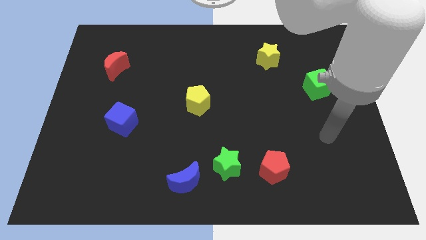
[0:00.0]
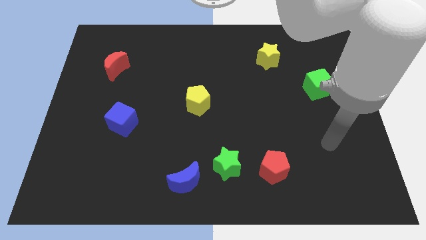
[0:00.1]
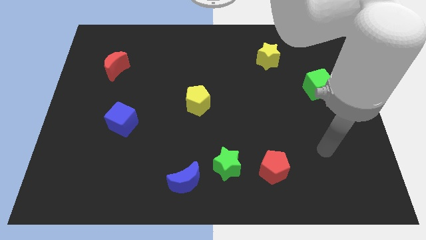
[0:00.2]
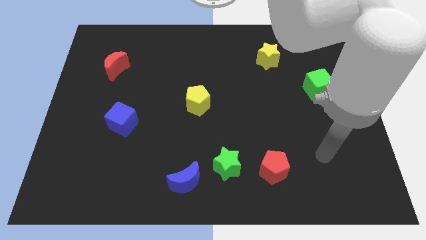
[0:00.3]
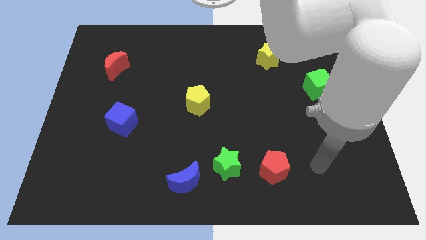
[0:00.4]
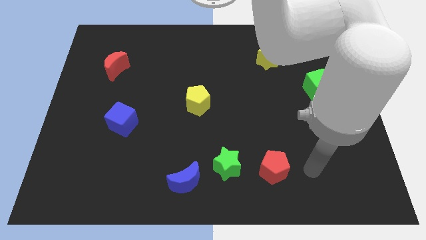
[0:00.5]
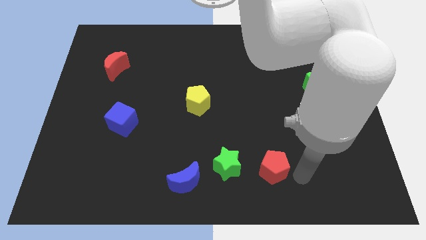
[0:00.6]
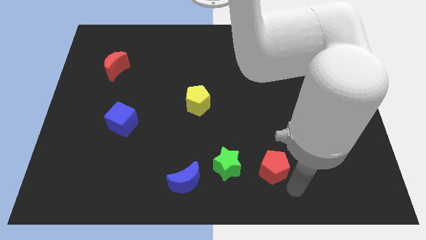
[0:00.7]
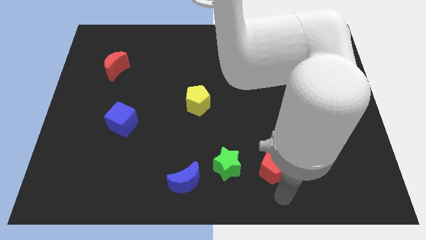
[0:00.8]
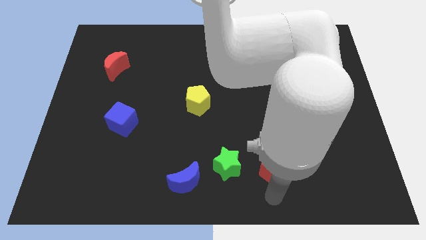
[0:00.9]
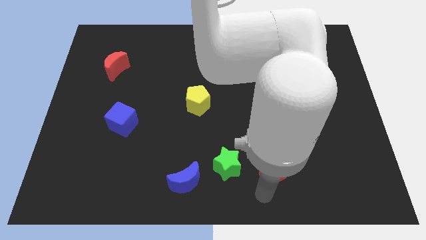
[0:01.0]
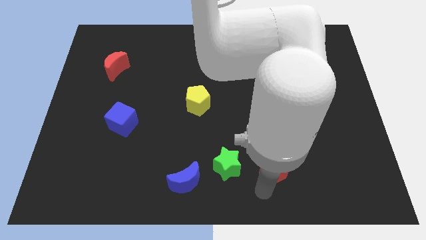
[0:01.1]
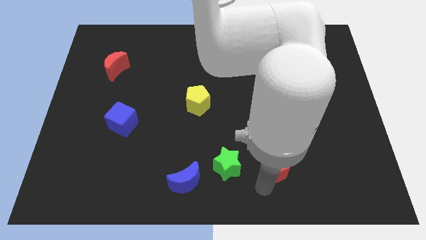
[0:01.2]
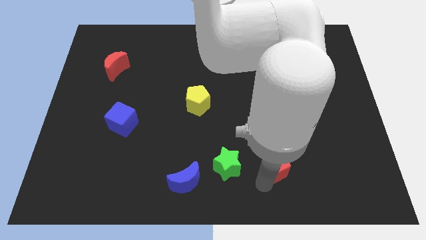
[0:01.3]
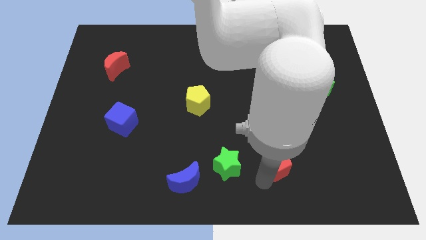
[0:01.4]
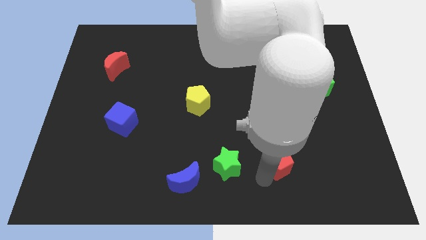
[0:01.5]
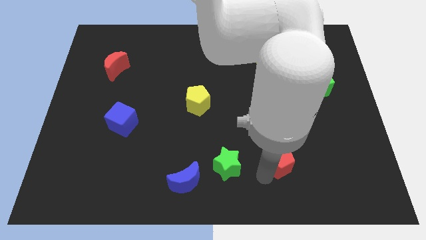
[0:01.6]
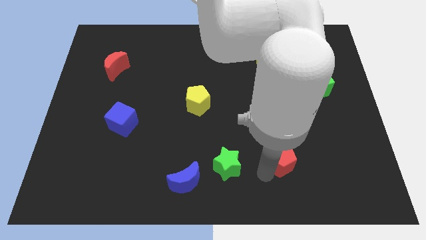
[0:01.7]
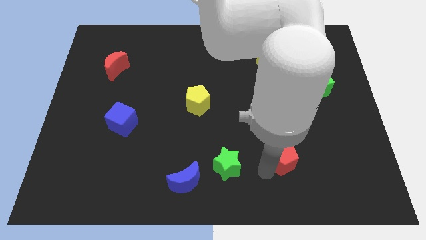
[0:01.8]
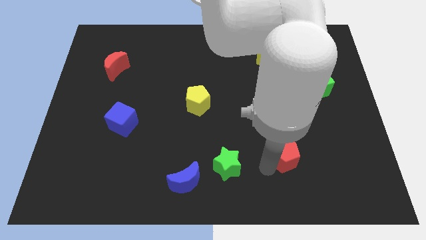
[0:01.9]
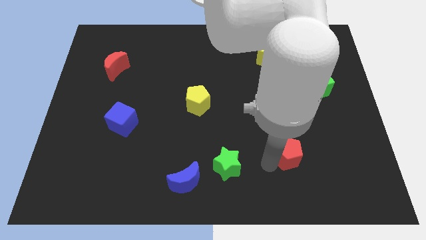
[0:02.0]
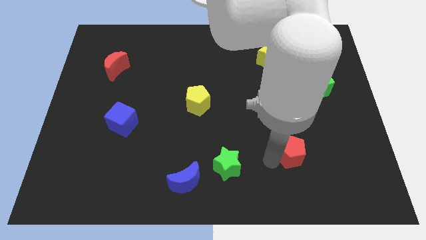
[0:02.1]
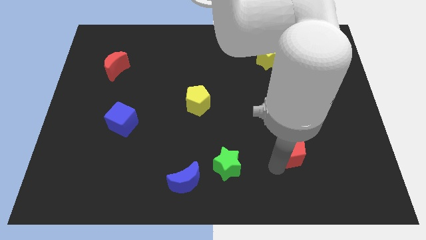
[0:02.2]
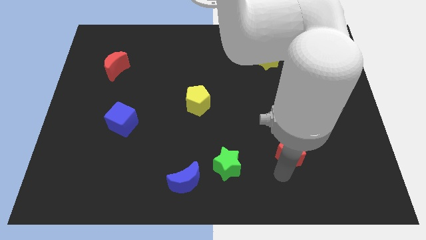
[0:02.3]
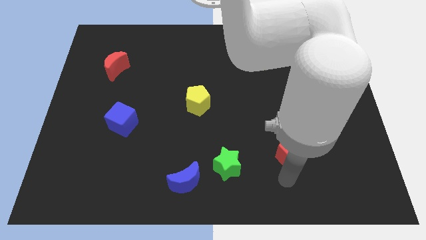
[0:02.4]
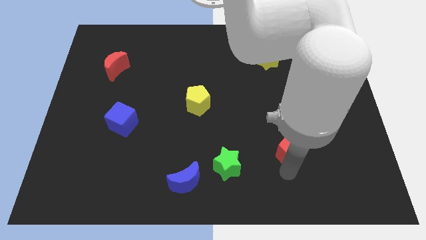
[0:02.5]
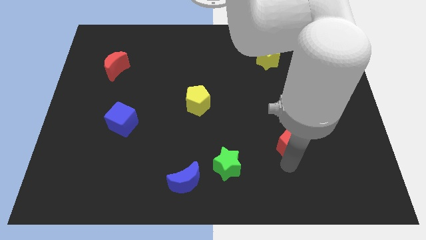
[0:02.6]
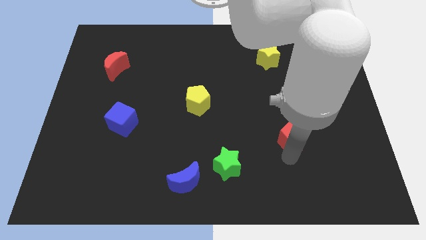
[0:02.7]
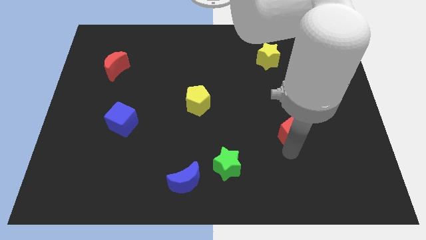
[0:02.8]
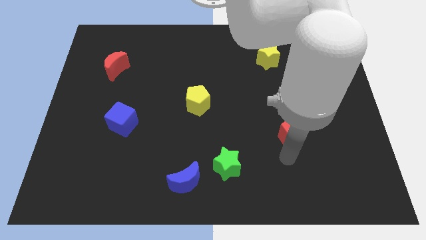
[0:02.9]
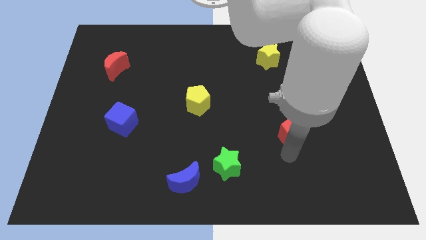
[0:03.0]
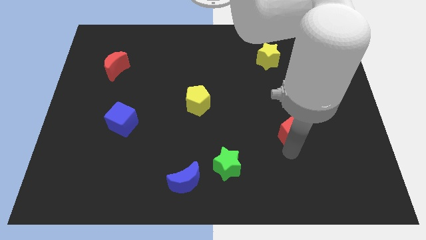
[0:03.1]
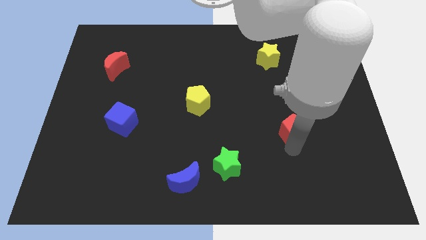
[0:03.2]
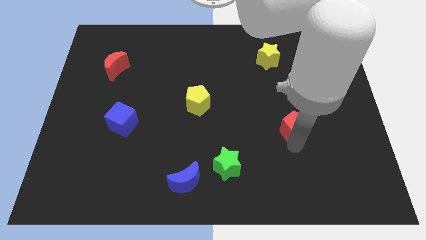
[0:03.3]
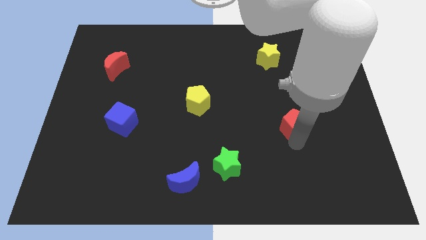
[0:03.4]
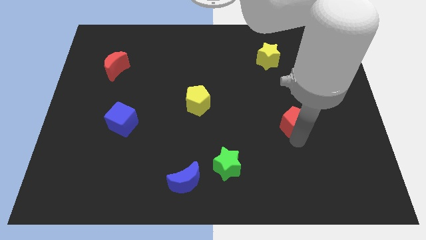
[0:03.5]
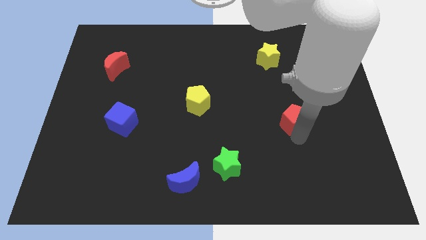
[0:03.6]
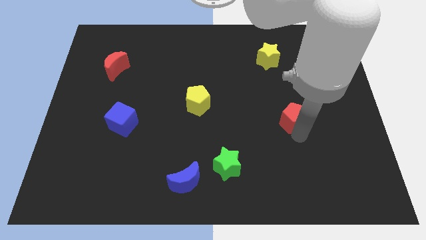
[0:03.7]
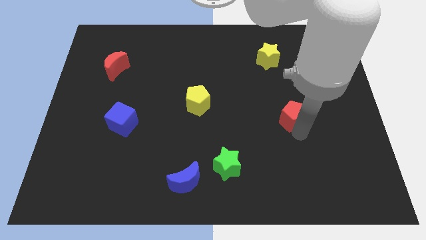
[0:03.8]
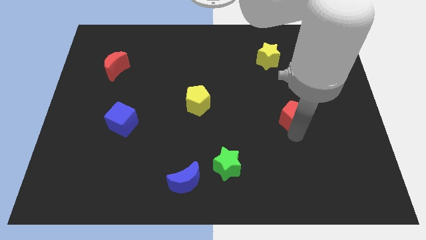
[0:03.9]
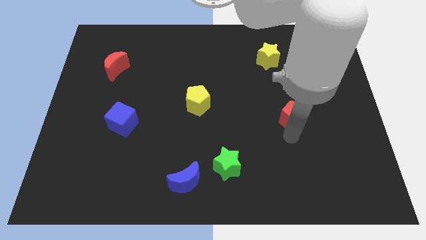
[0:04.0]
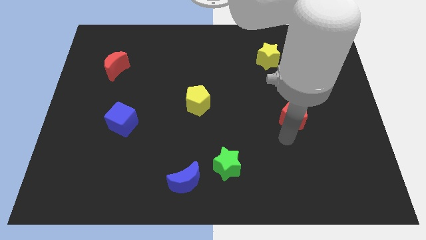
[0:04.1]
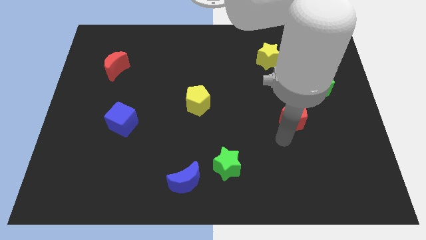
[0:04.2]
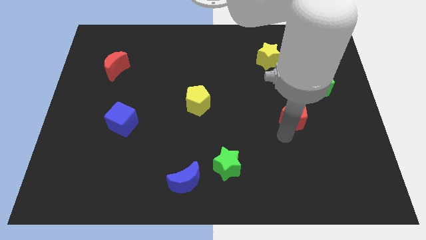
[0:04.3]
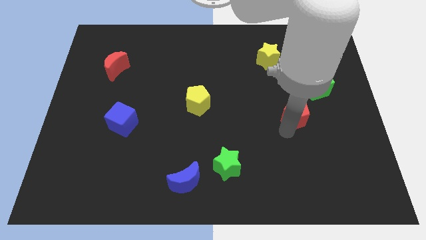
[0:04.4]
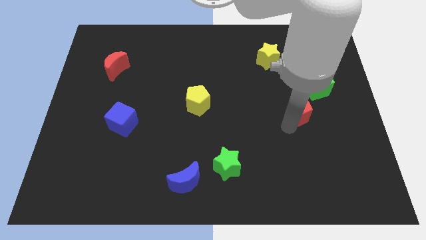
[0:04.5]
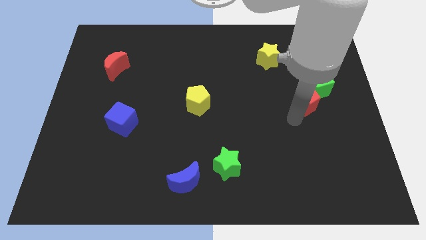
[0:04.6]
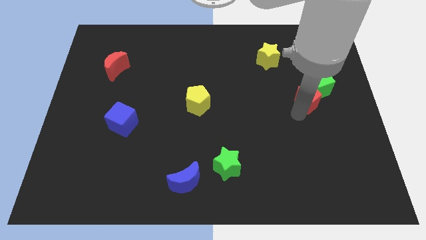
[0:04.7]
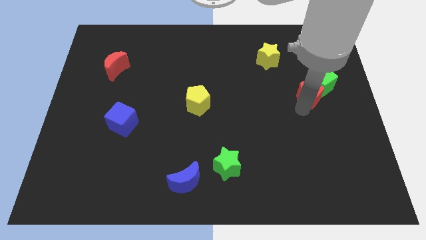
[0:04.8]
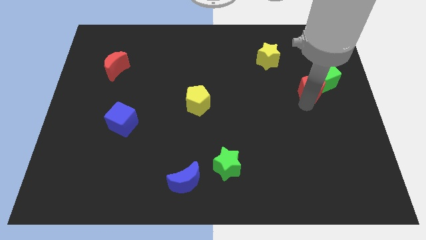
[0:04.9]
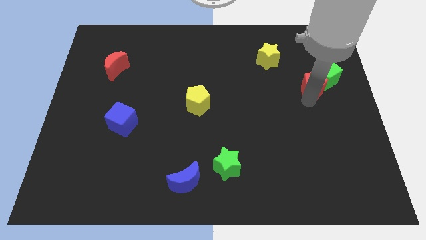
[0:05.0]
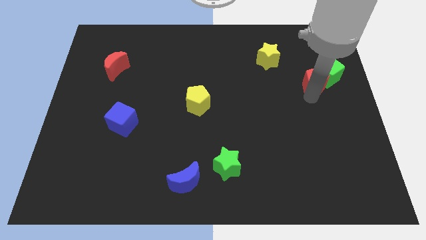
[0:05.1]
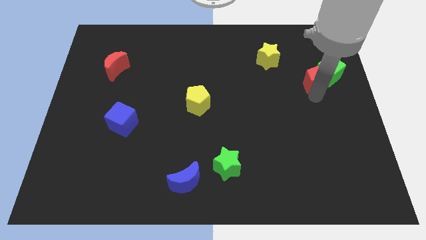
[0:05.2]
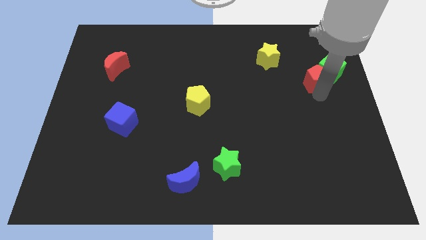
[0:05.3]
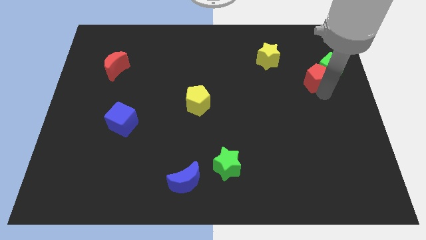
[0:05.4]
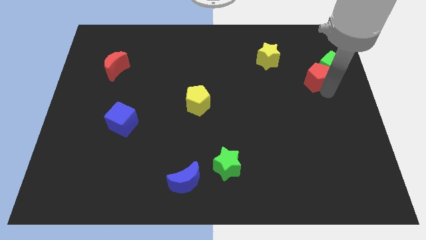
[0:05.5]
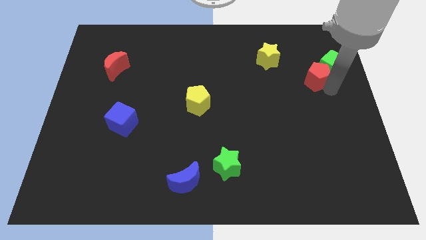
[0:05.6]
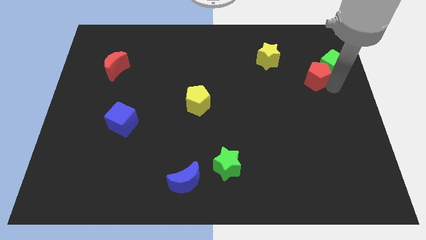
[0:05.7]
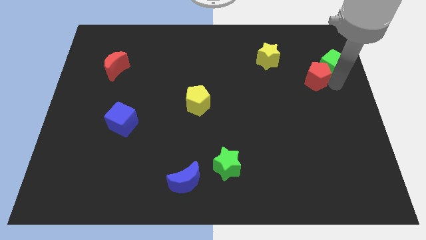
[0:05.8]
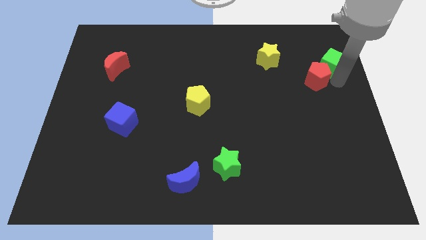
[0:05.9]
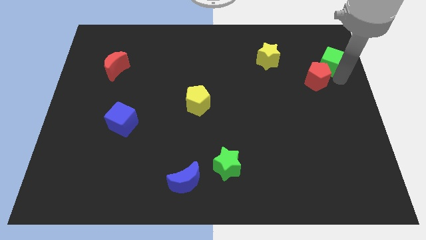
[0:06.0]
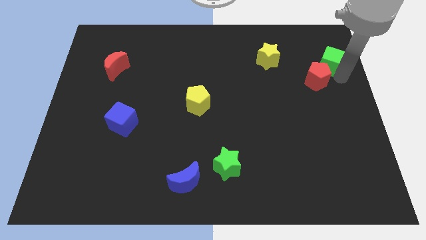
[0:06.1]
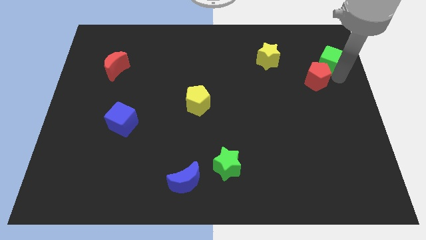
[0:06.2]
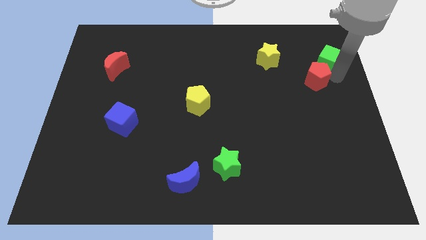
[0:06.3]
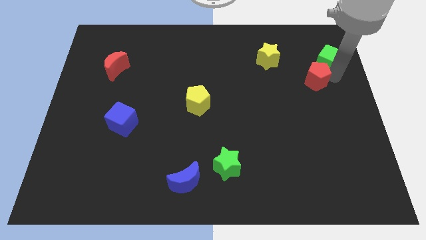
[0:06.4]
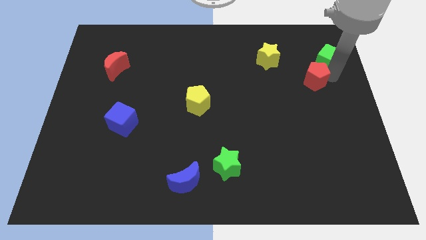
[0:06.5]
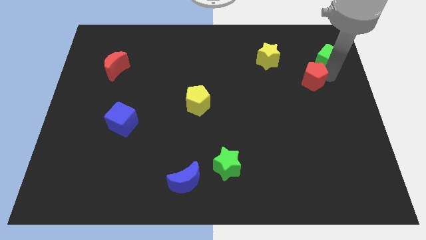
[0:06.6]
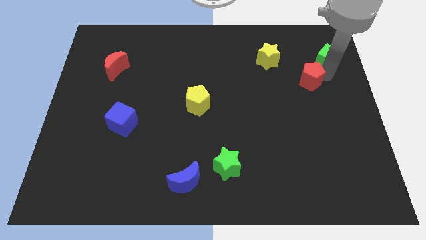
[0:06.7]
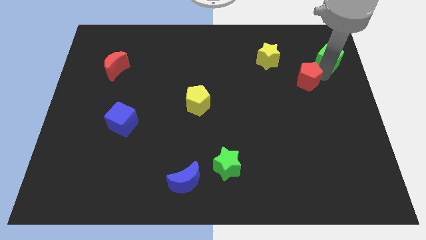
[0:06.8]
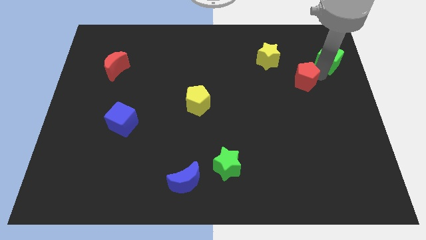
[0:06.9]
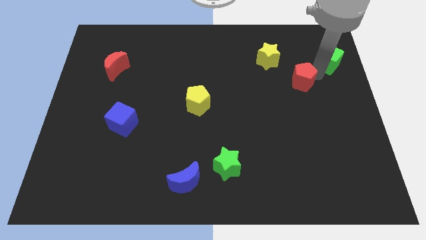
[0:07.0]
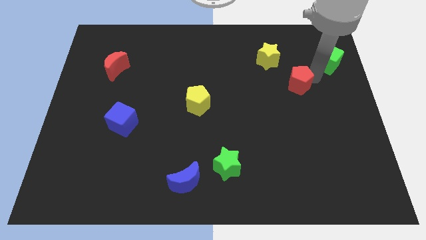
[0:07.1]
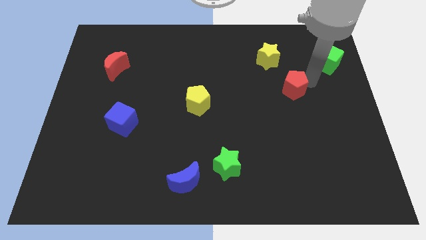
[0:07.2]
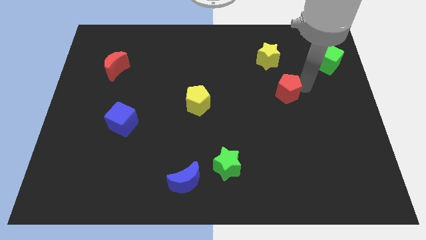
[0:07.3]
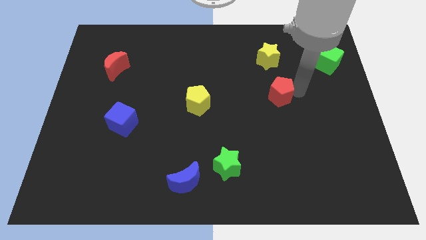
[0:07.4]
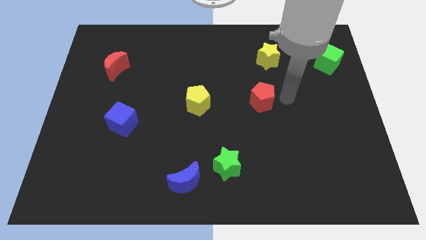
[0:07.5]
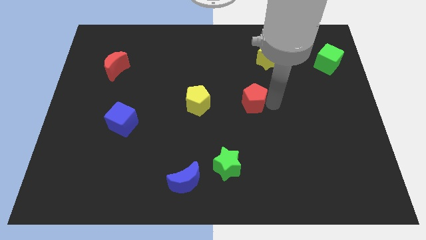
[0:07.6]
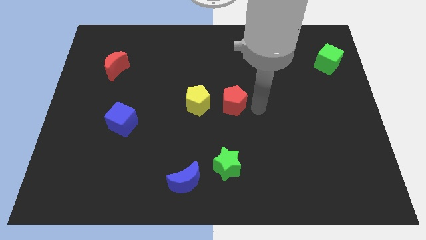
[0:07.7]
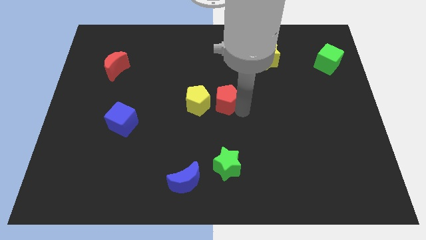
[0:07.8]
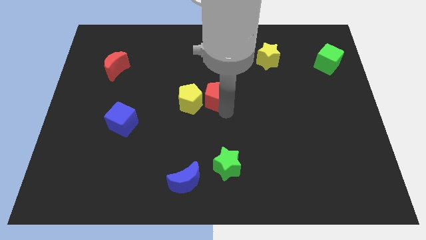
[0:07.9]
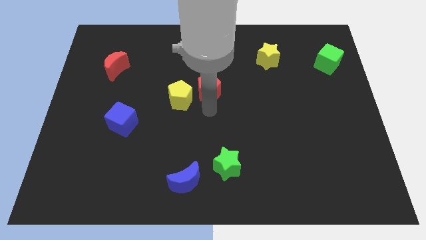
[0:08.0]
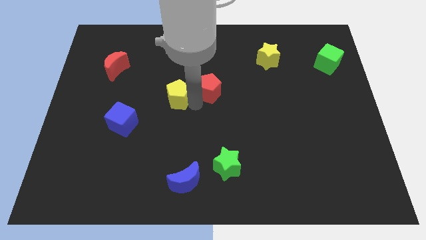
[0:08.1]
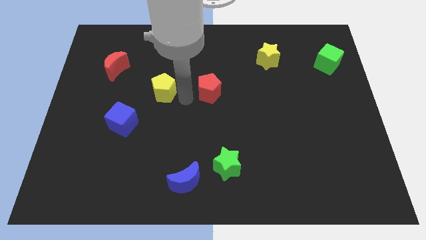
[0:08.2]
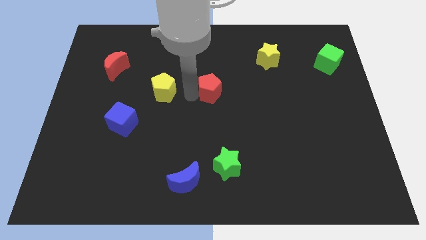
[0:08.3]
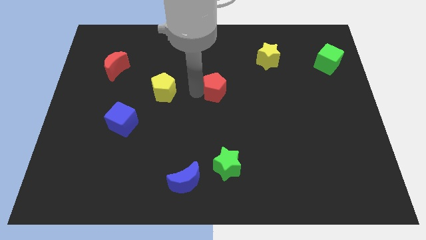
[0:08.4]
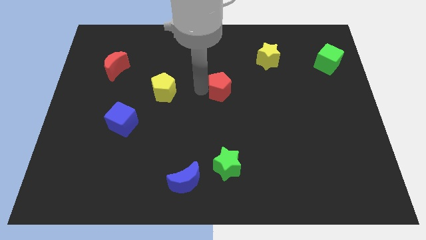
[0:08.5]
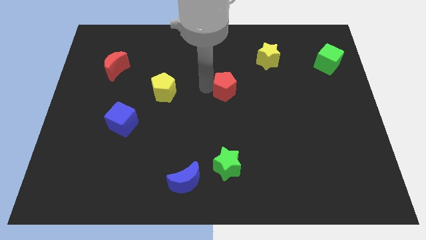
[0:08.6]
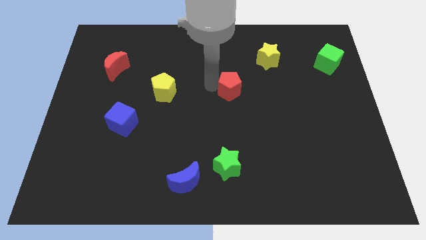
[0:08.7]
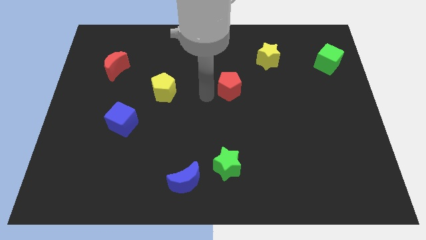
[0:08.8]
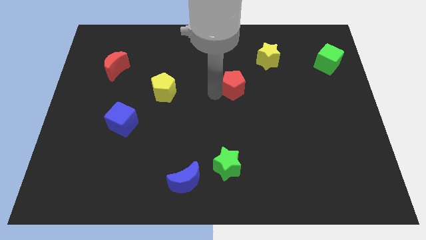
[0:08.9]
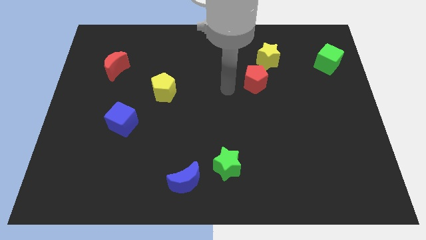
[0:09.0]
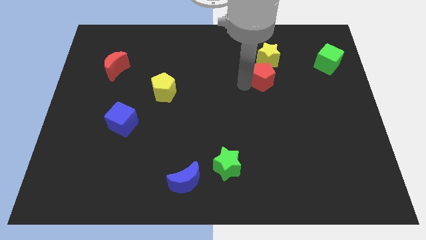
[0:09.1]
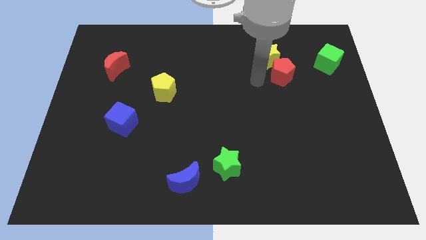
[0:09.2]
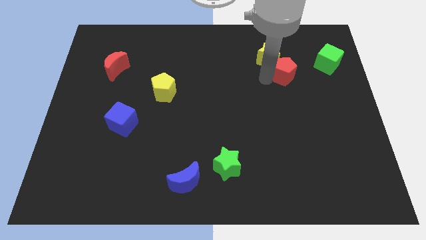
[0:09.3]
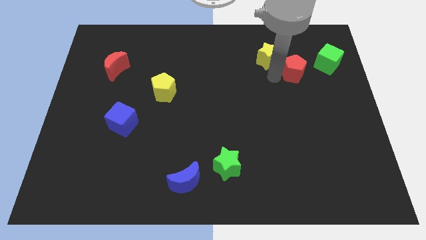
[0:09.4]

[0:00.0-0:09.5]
push the red pentagon just right of the yellow star
